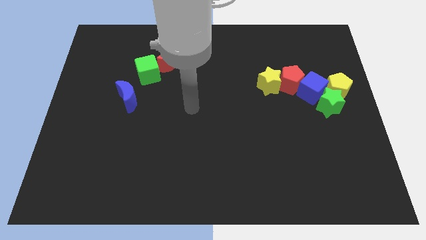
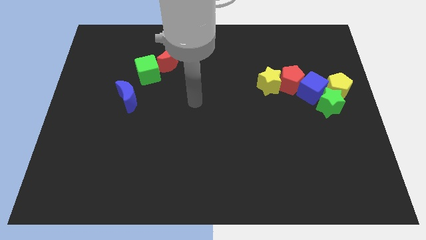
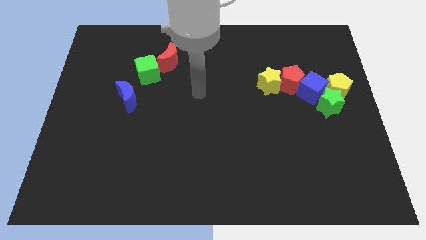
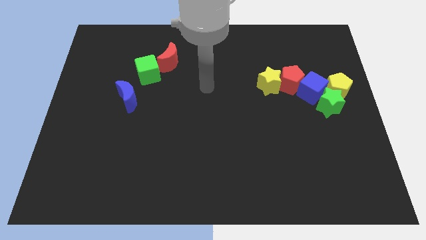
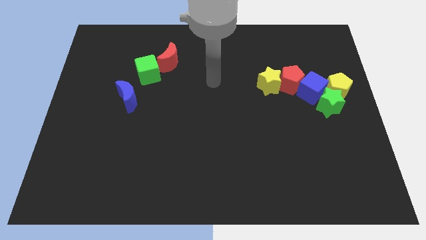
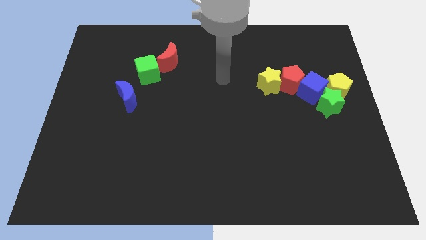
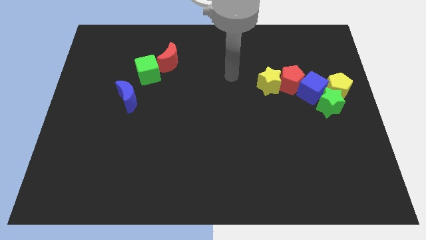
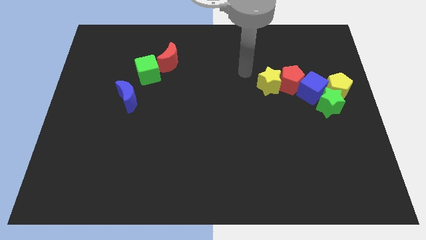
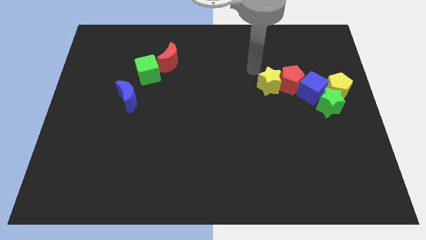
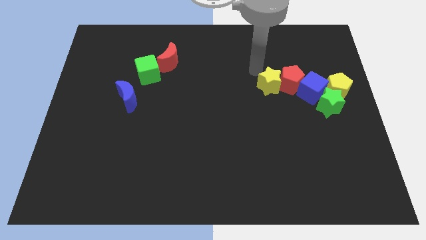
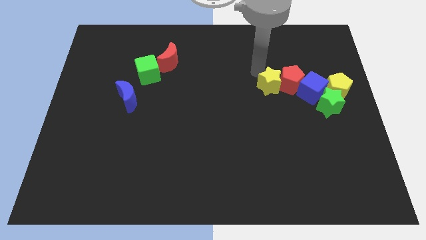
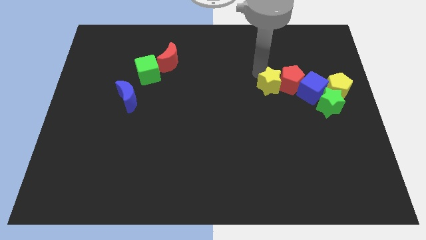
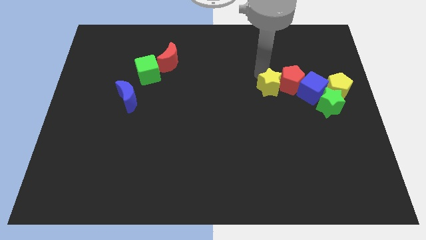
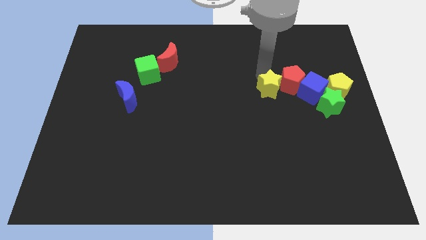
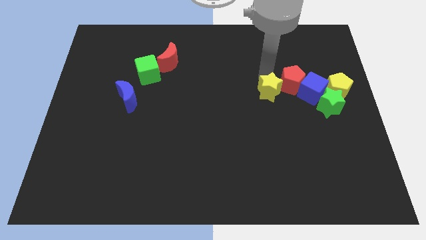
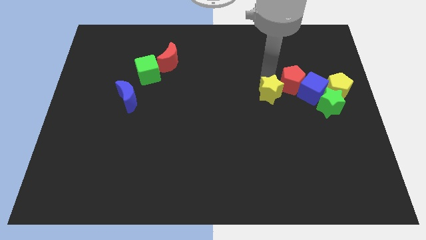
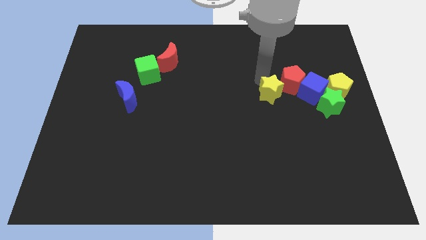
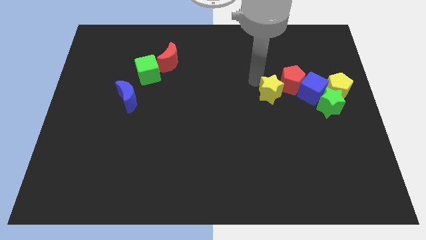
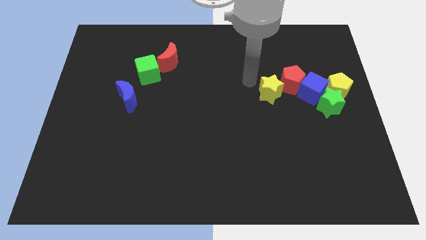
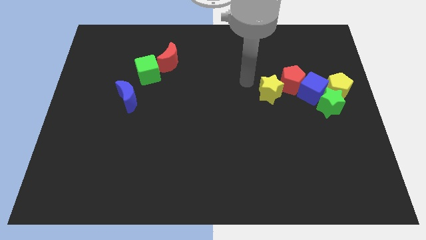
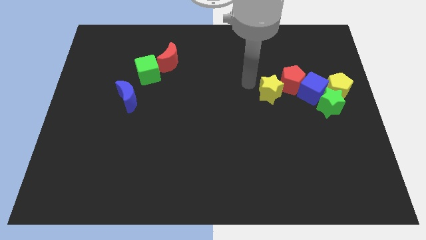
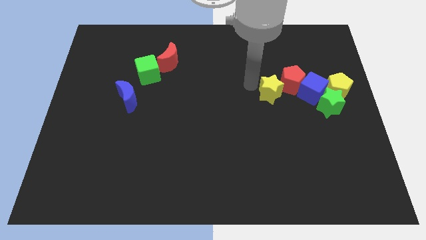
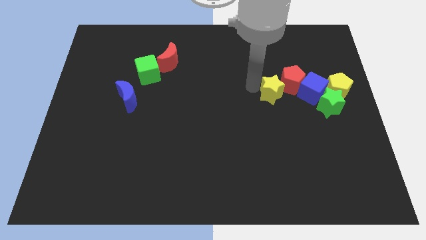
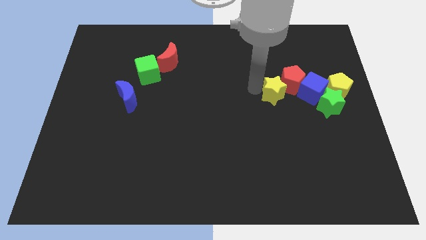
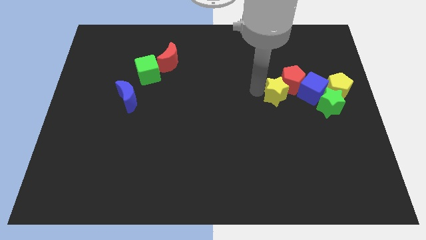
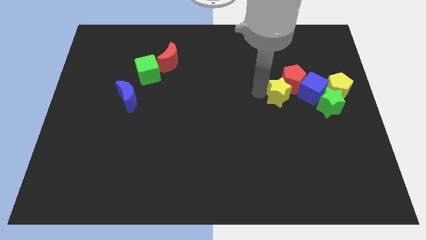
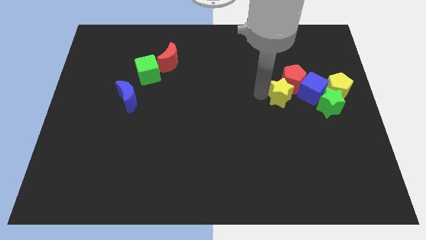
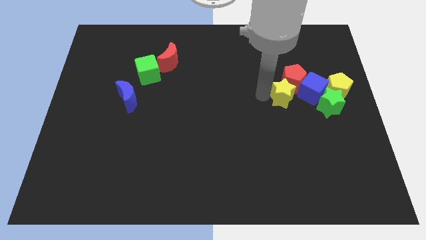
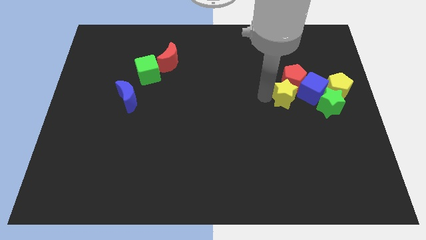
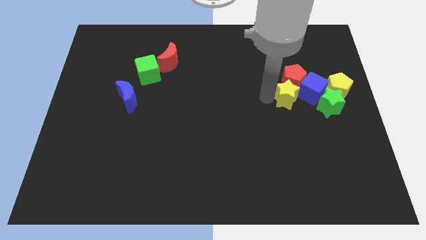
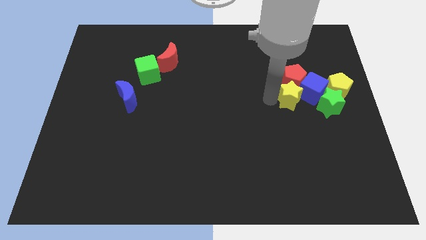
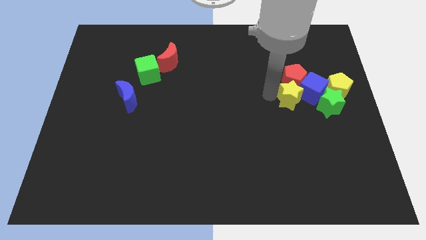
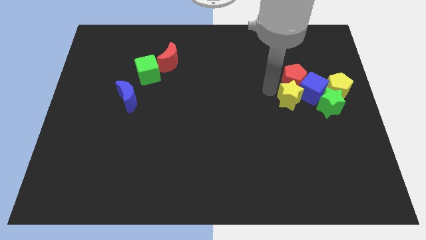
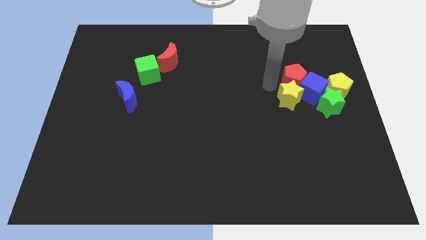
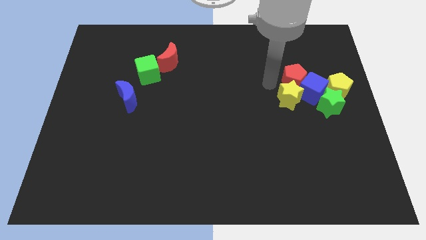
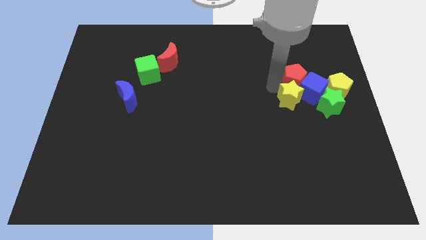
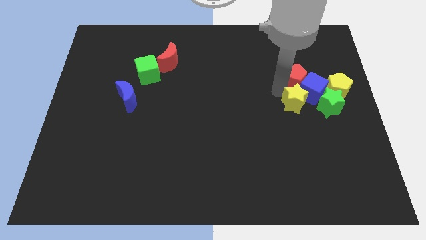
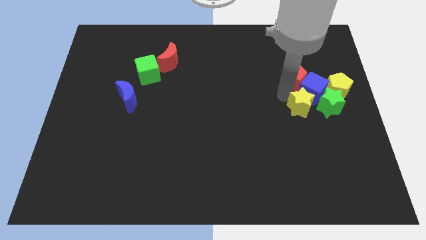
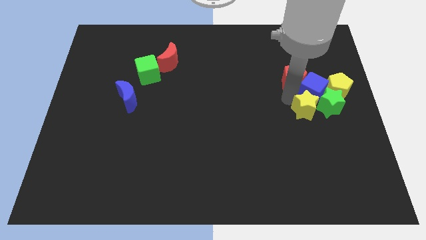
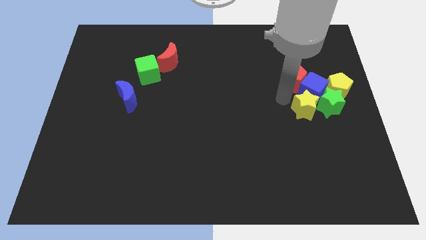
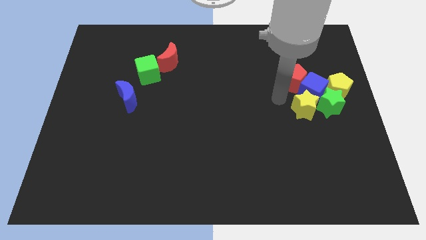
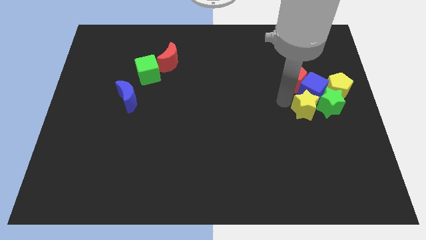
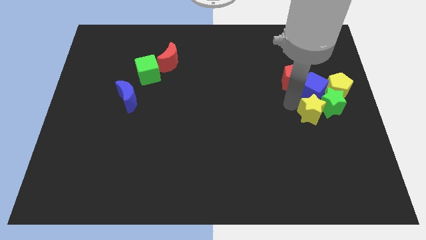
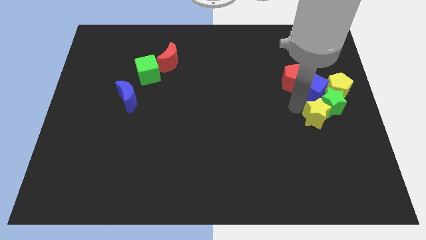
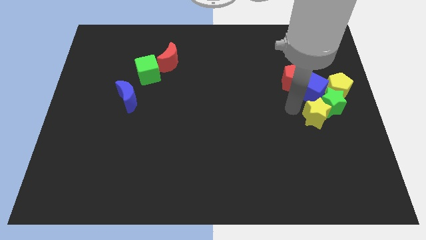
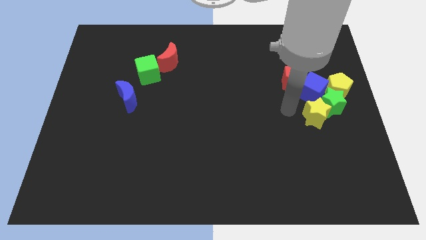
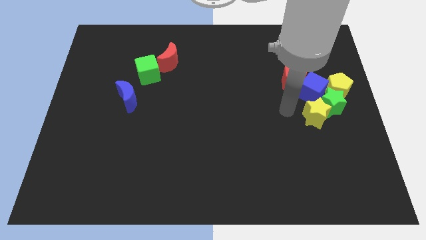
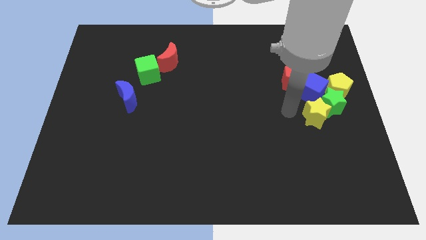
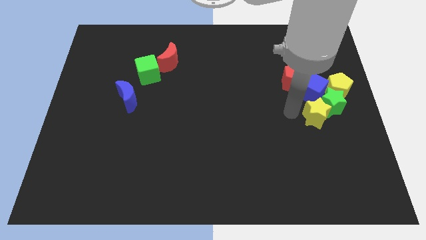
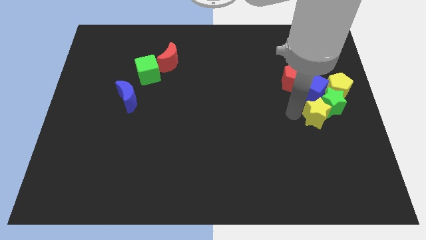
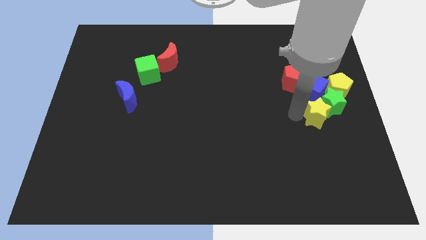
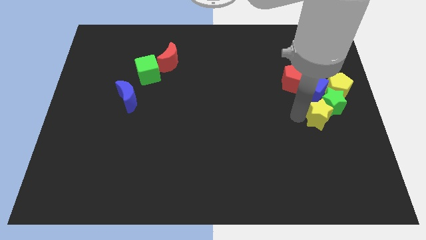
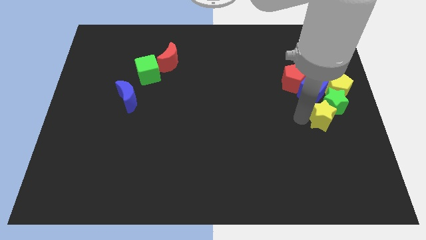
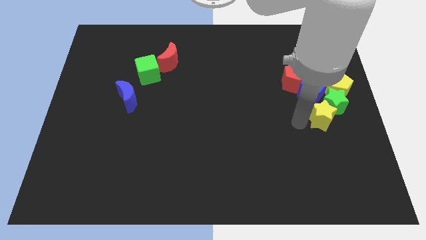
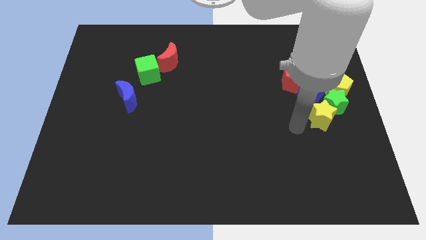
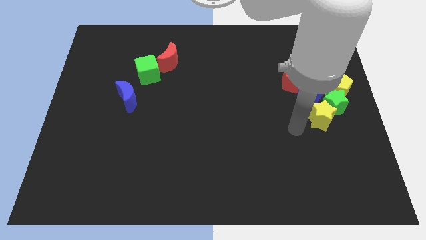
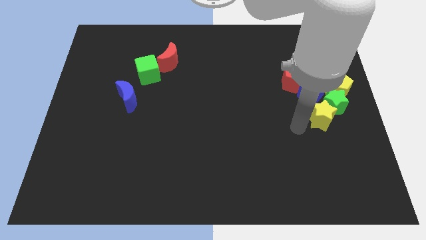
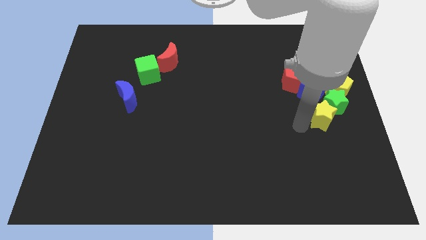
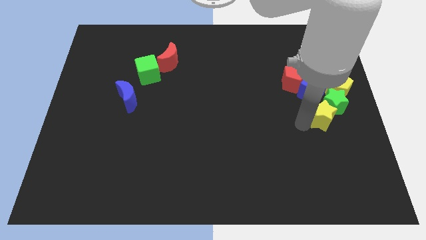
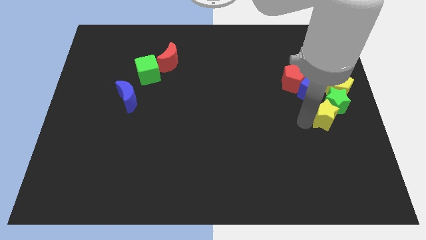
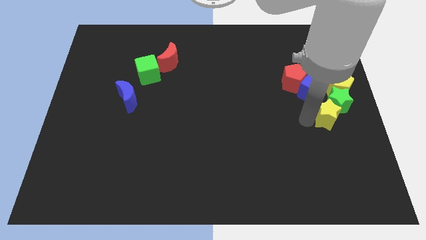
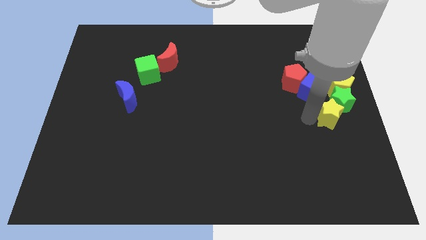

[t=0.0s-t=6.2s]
slide the yellow star to the right side of the board
